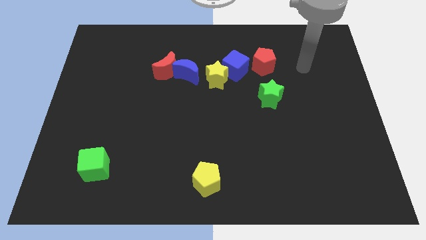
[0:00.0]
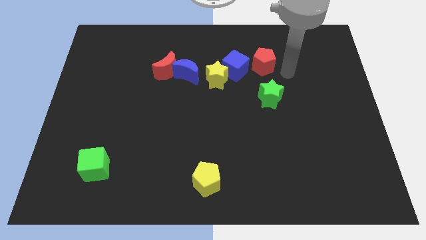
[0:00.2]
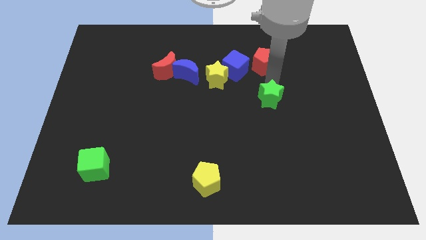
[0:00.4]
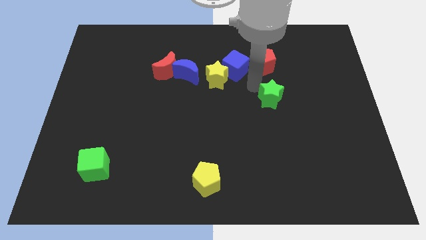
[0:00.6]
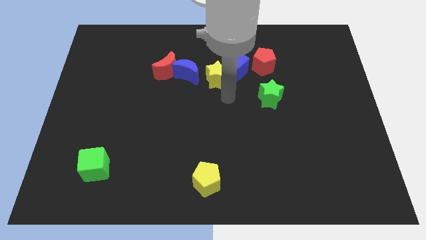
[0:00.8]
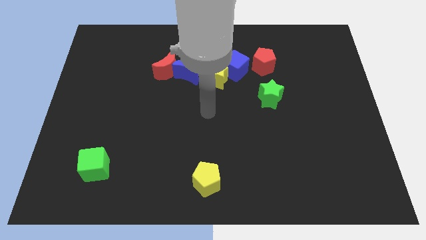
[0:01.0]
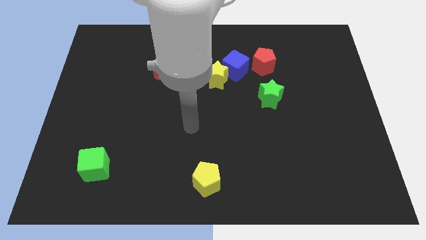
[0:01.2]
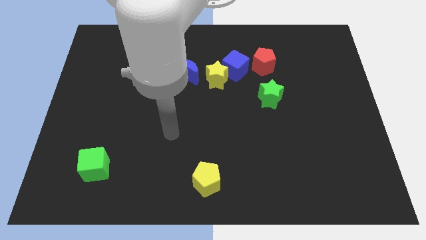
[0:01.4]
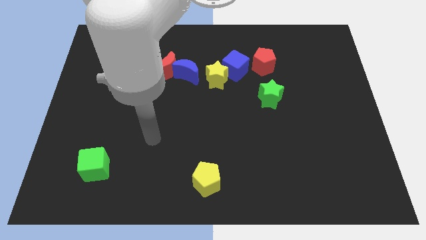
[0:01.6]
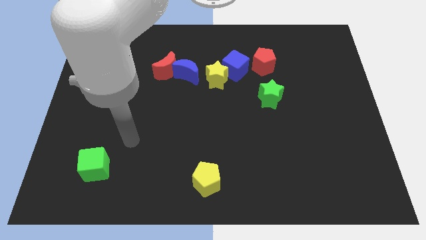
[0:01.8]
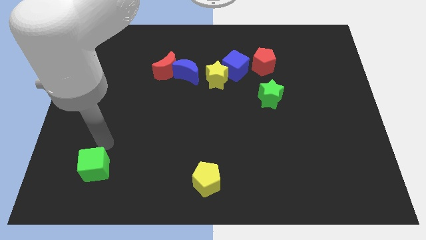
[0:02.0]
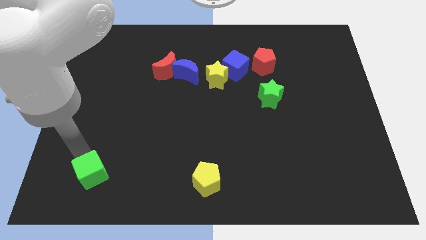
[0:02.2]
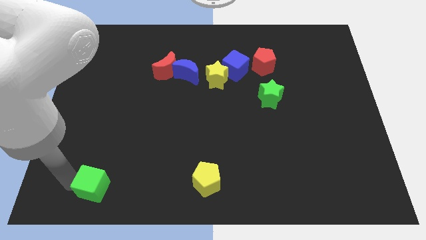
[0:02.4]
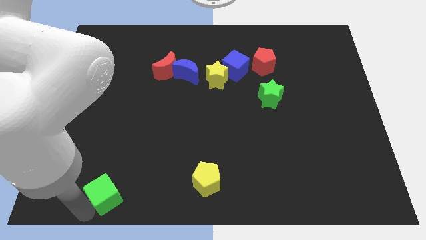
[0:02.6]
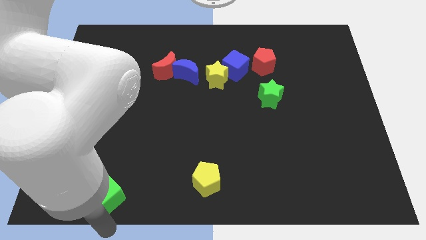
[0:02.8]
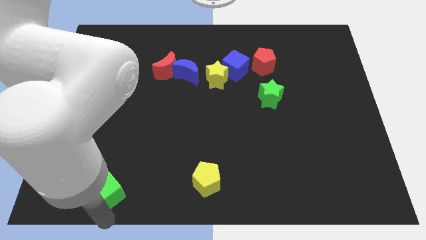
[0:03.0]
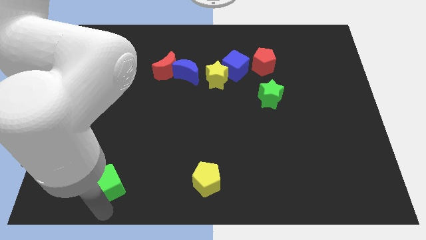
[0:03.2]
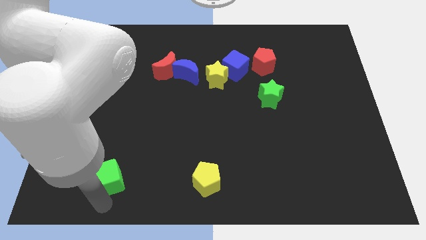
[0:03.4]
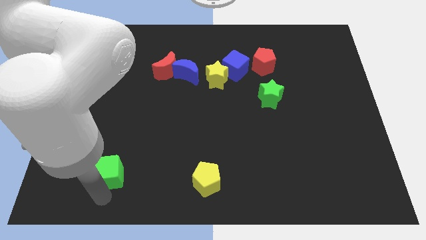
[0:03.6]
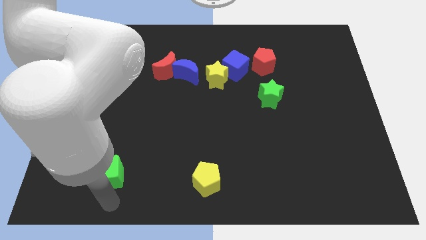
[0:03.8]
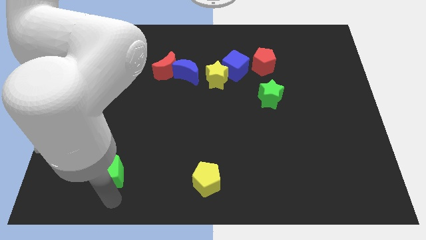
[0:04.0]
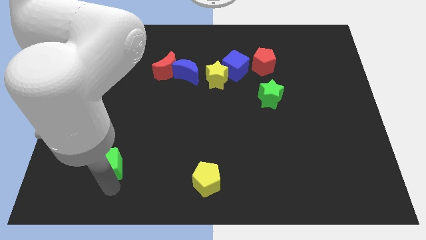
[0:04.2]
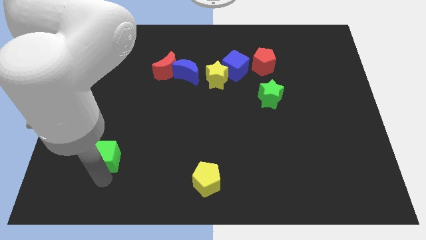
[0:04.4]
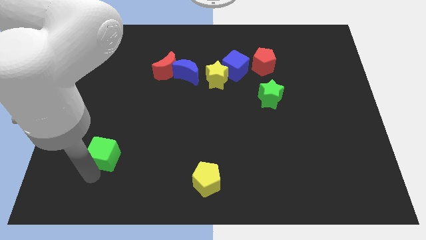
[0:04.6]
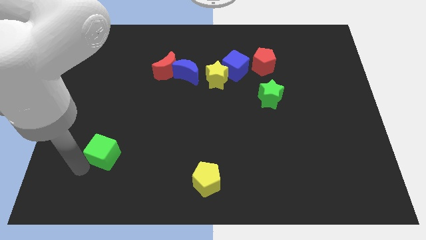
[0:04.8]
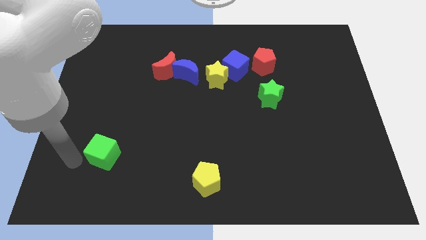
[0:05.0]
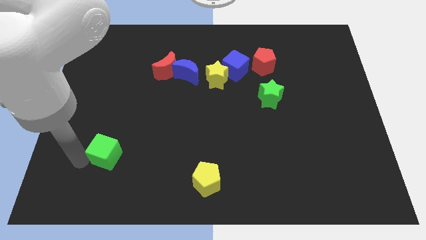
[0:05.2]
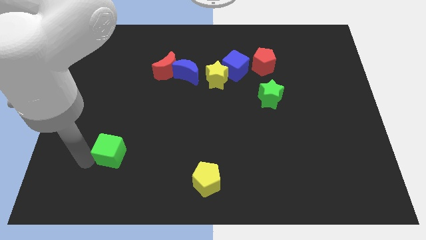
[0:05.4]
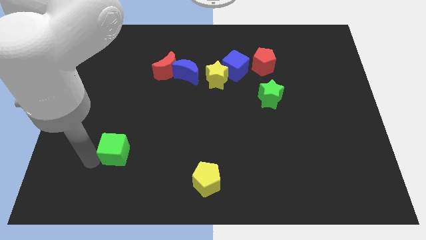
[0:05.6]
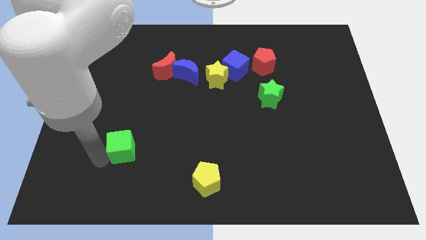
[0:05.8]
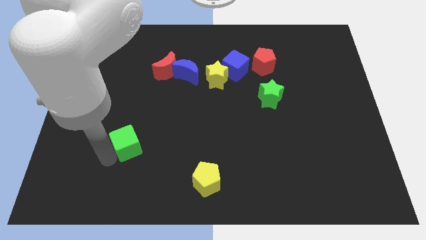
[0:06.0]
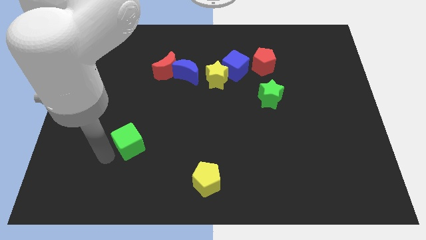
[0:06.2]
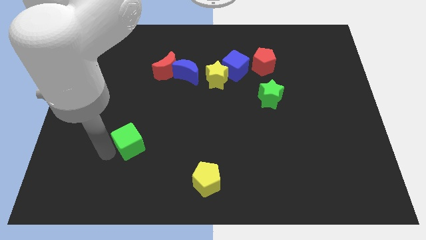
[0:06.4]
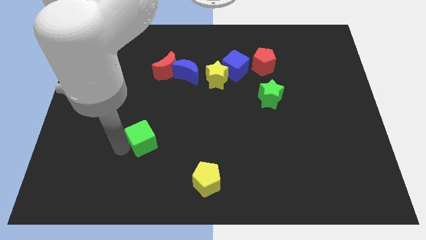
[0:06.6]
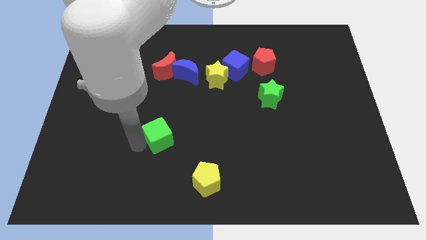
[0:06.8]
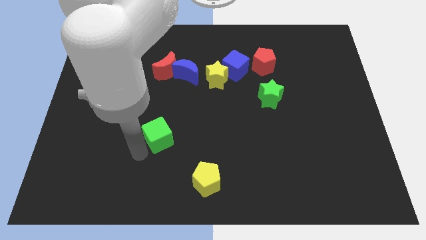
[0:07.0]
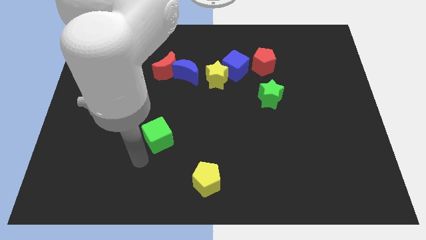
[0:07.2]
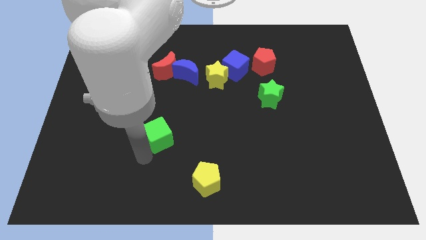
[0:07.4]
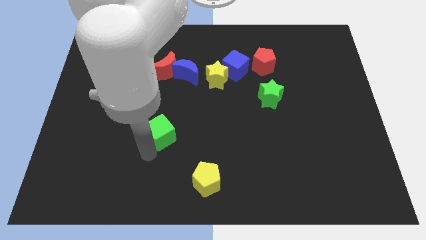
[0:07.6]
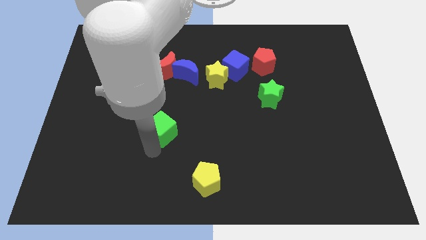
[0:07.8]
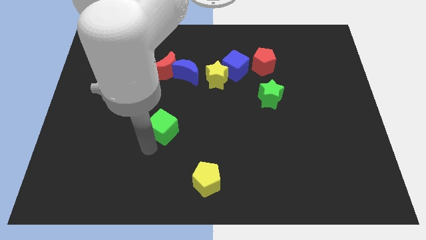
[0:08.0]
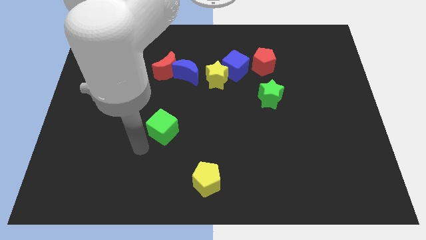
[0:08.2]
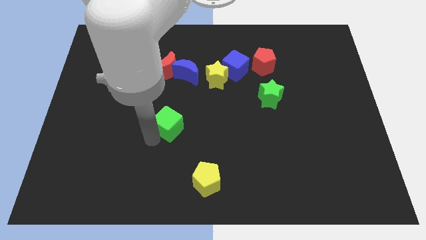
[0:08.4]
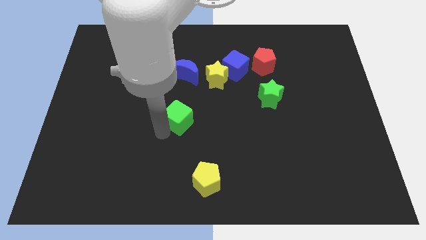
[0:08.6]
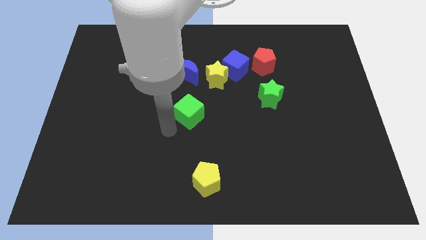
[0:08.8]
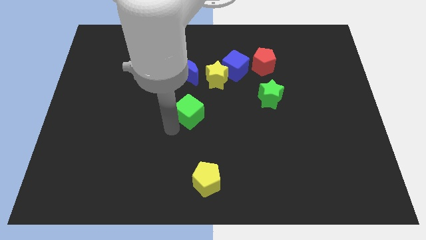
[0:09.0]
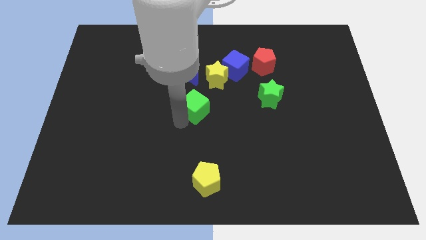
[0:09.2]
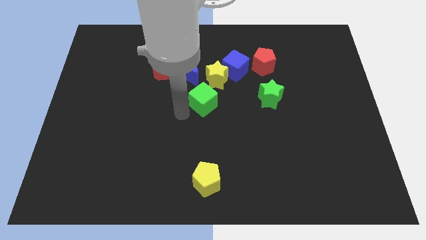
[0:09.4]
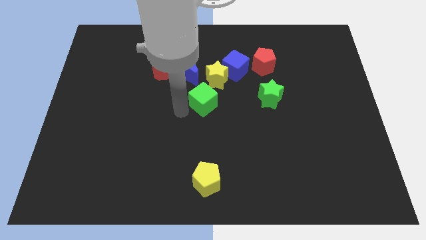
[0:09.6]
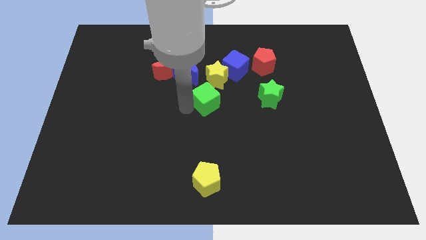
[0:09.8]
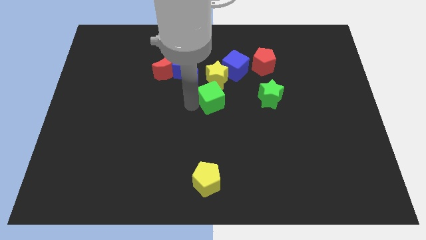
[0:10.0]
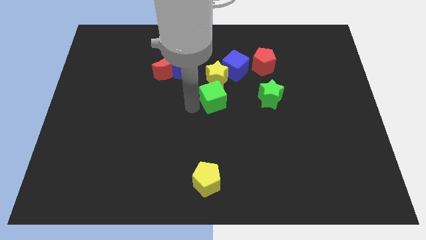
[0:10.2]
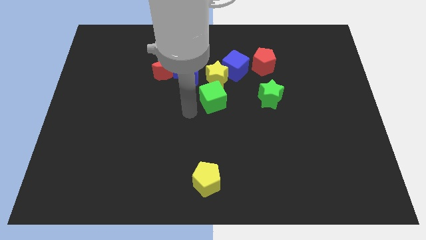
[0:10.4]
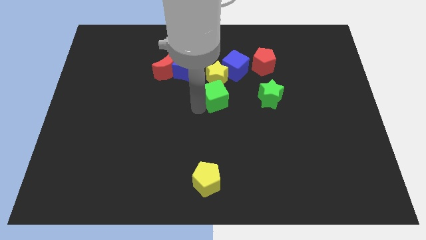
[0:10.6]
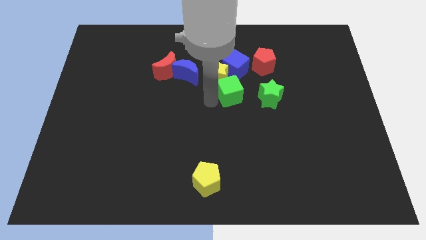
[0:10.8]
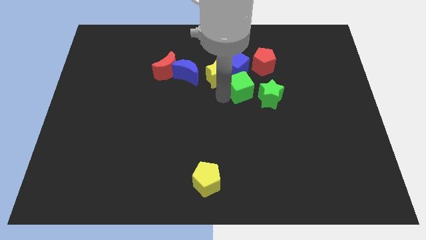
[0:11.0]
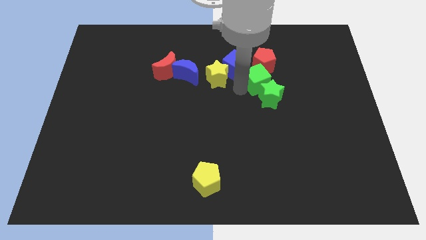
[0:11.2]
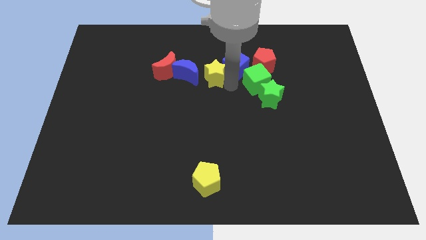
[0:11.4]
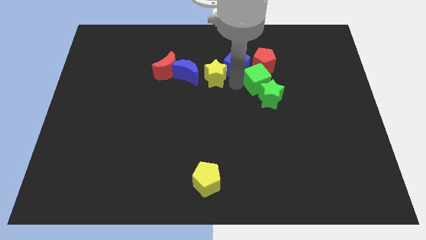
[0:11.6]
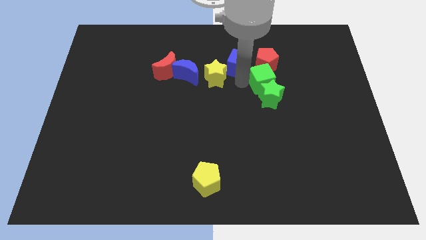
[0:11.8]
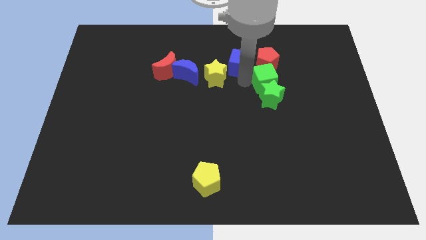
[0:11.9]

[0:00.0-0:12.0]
push the green cube to the bottom right of the red pentagon

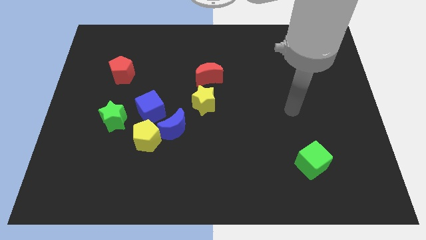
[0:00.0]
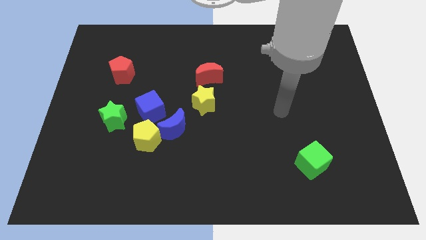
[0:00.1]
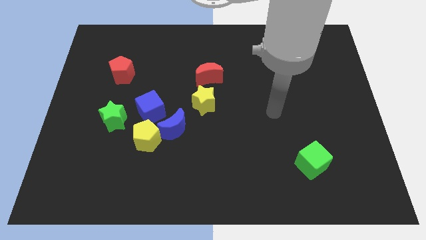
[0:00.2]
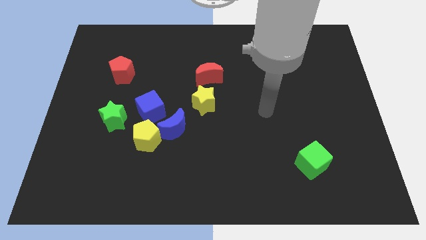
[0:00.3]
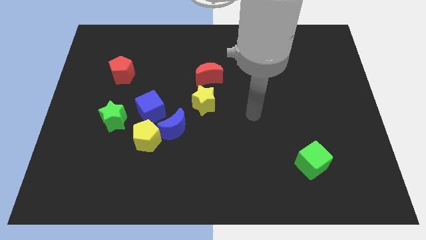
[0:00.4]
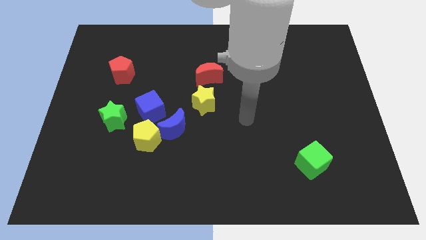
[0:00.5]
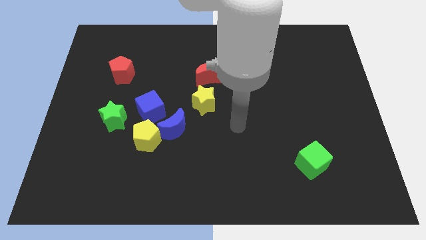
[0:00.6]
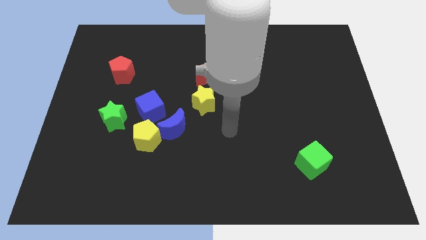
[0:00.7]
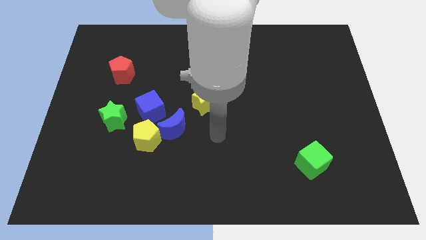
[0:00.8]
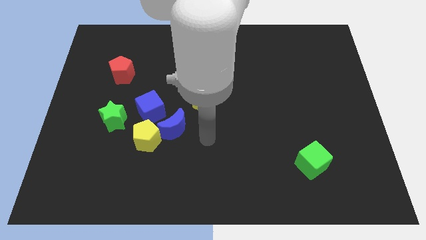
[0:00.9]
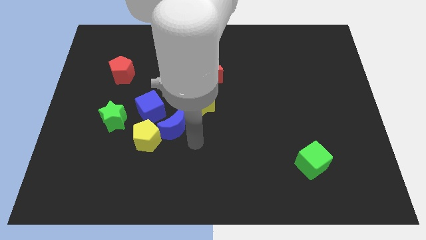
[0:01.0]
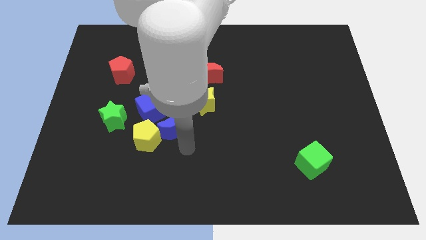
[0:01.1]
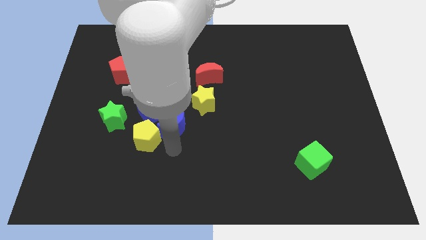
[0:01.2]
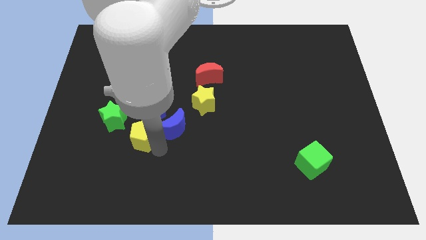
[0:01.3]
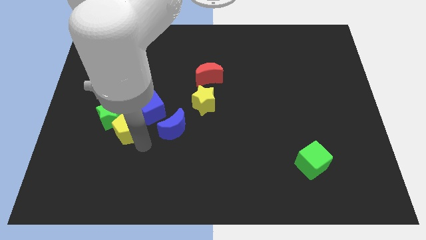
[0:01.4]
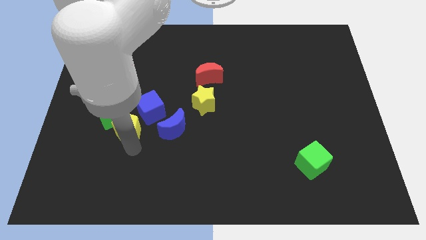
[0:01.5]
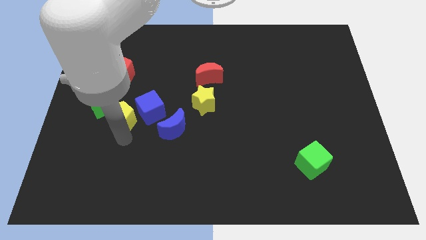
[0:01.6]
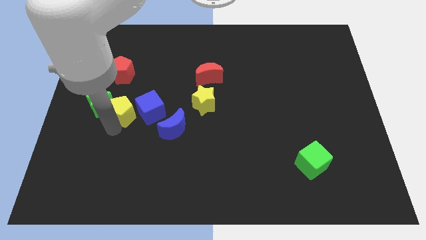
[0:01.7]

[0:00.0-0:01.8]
put the green star to the bottom left side of the red pentagon
